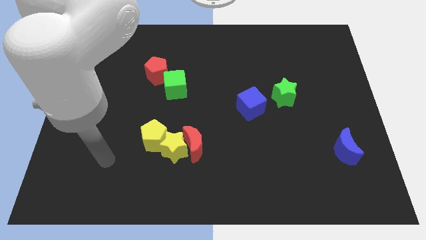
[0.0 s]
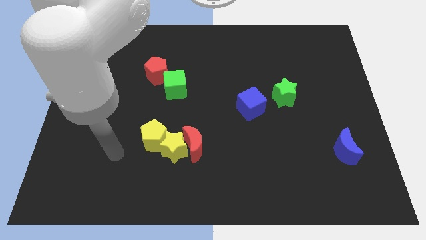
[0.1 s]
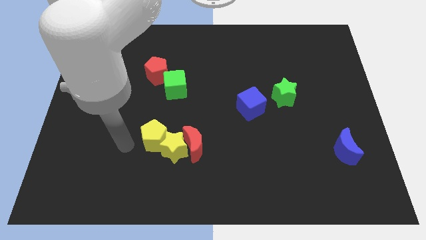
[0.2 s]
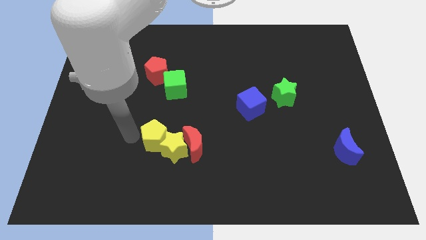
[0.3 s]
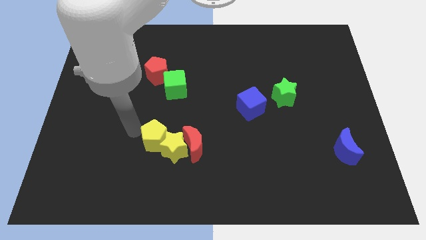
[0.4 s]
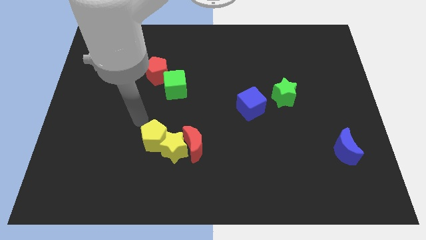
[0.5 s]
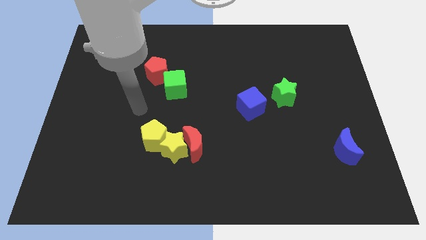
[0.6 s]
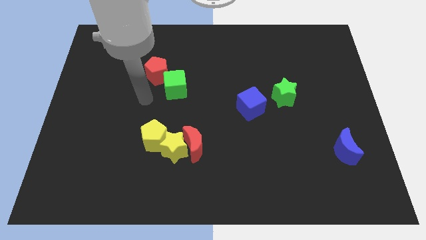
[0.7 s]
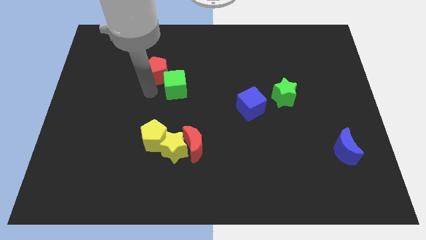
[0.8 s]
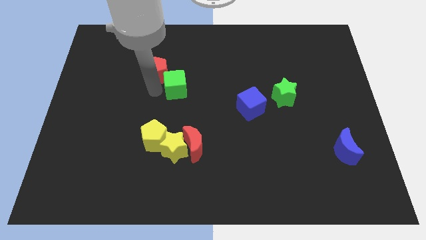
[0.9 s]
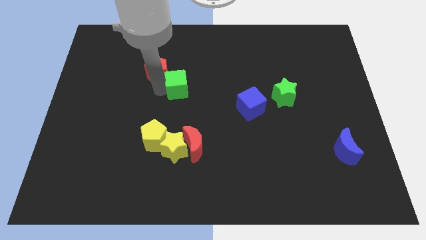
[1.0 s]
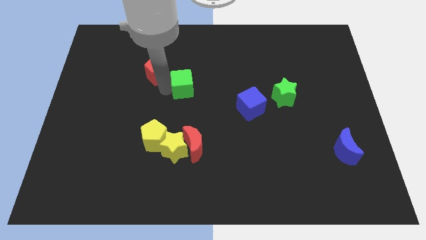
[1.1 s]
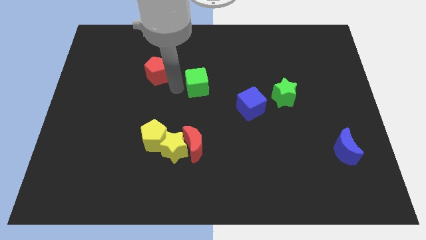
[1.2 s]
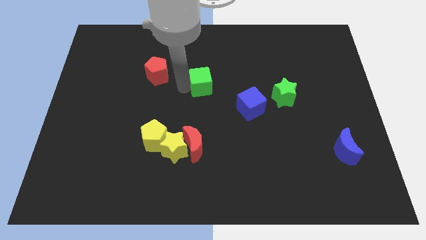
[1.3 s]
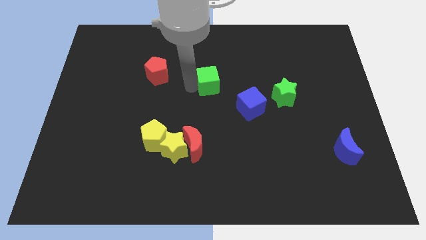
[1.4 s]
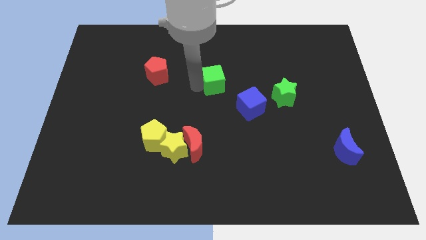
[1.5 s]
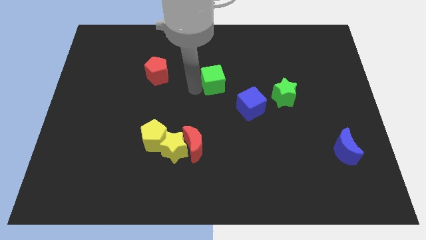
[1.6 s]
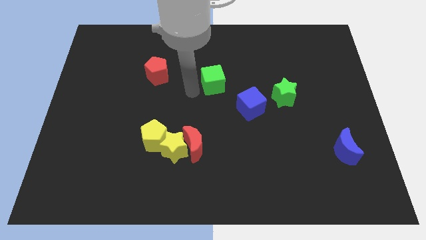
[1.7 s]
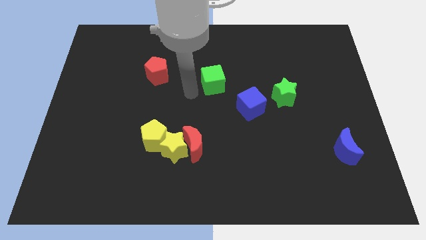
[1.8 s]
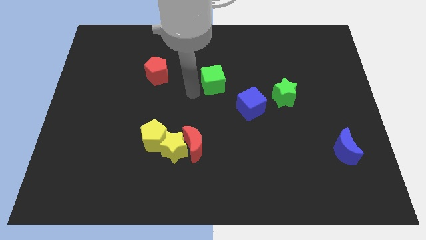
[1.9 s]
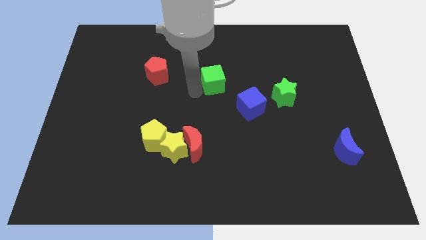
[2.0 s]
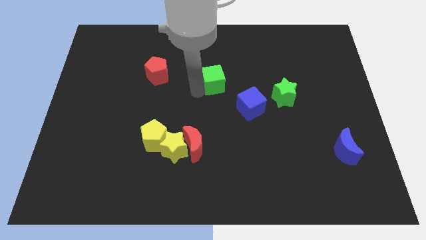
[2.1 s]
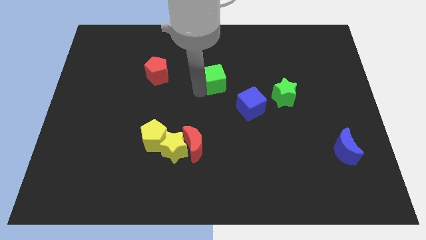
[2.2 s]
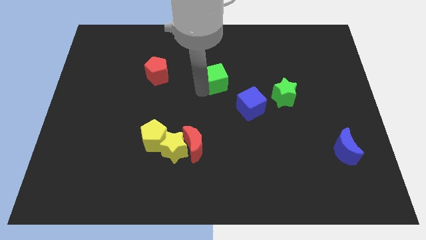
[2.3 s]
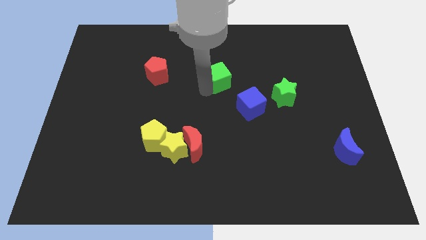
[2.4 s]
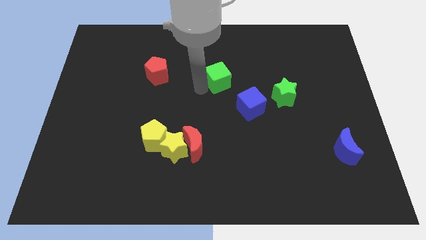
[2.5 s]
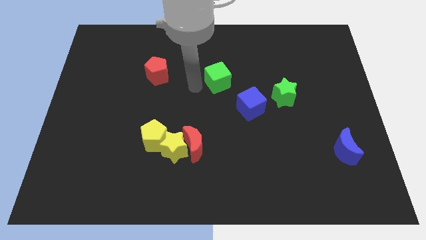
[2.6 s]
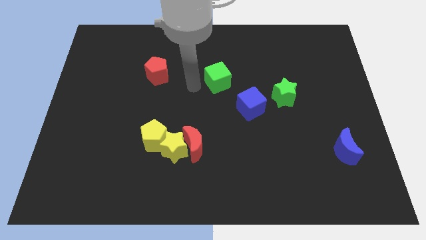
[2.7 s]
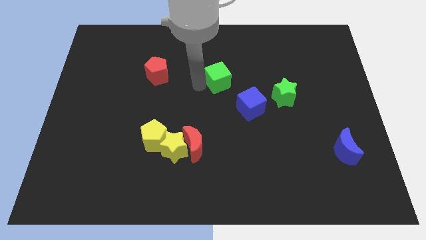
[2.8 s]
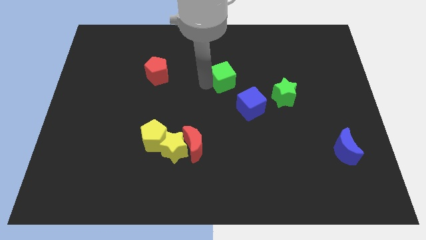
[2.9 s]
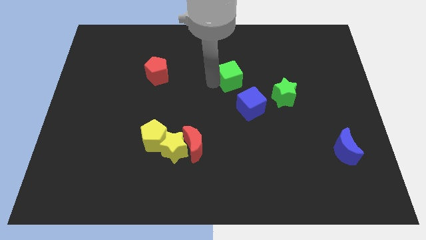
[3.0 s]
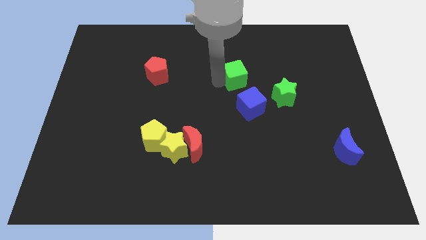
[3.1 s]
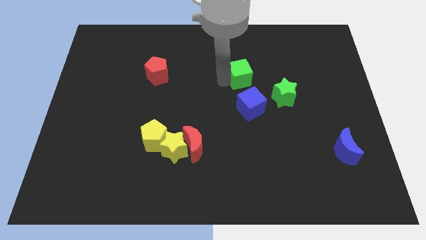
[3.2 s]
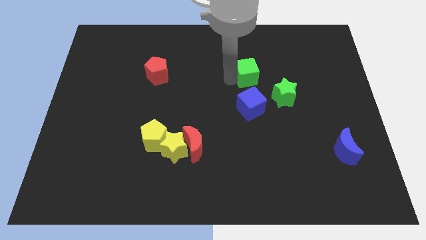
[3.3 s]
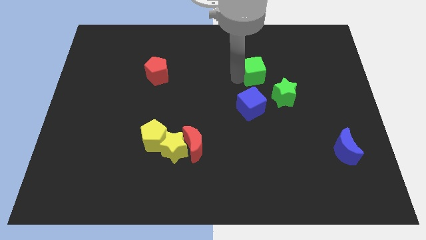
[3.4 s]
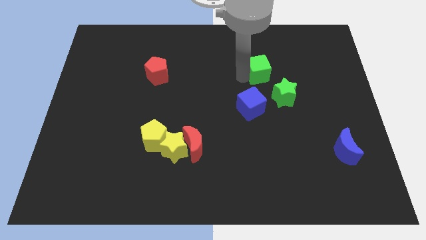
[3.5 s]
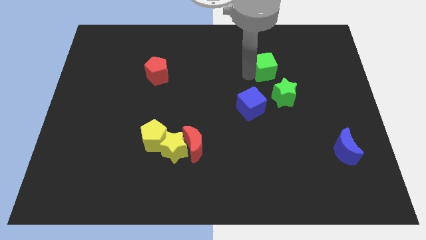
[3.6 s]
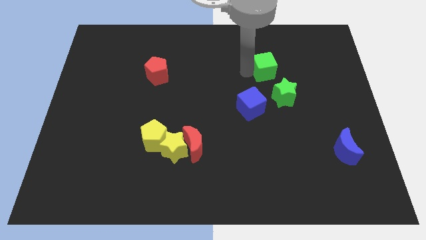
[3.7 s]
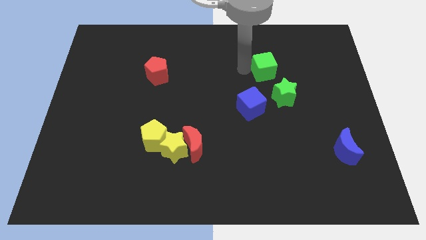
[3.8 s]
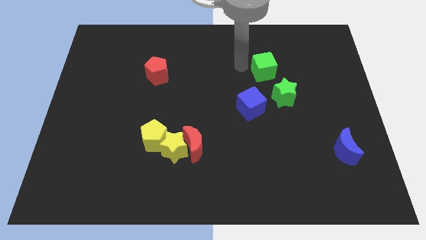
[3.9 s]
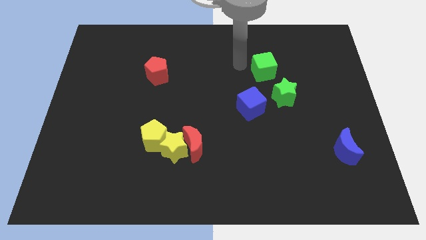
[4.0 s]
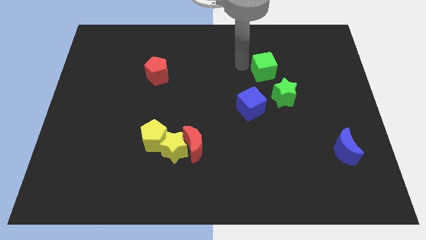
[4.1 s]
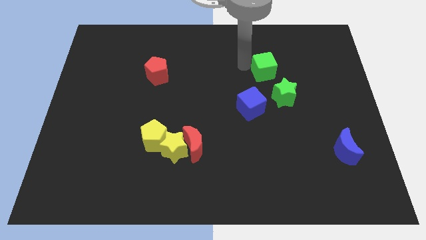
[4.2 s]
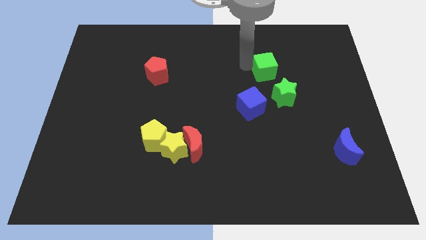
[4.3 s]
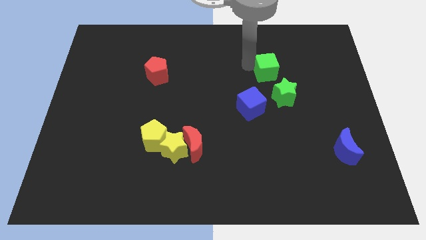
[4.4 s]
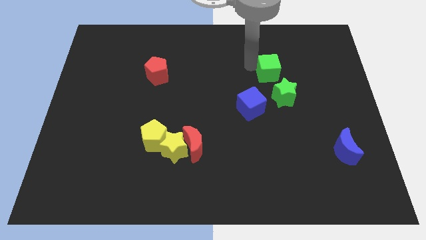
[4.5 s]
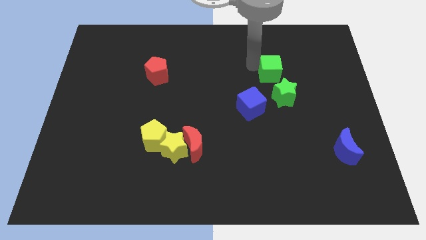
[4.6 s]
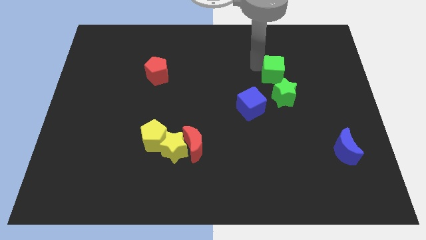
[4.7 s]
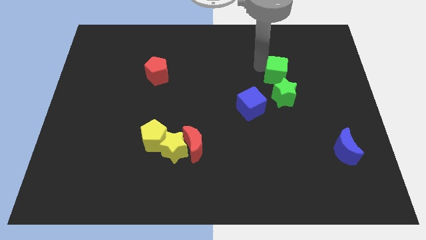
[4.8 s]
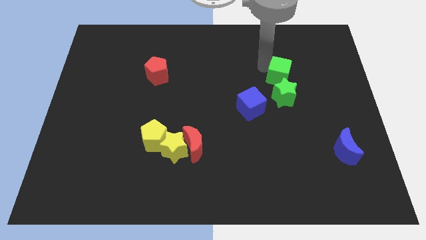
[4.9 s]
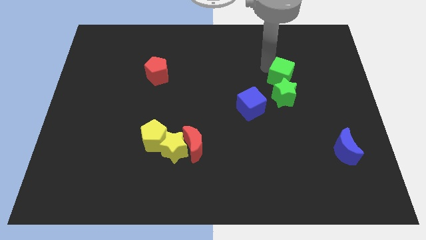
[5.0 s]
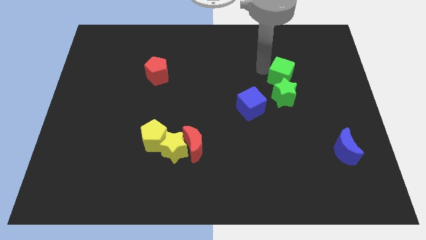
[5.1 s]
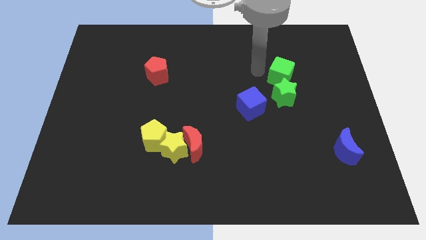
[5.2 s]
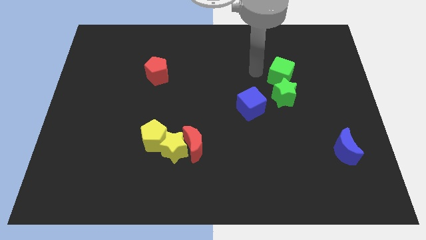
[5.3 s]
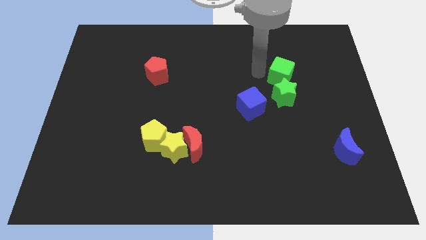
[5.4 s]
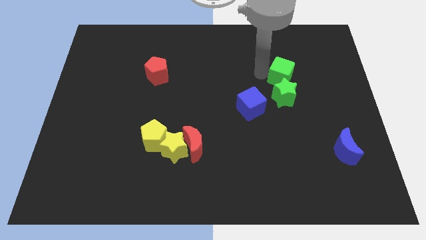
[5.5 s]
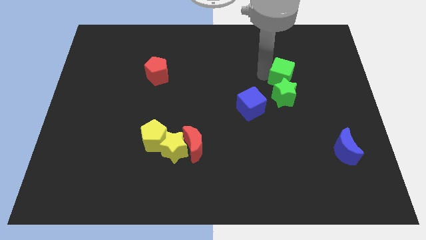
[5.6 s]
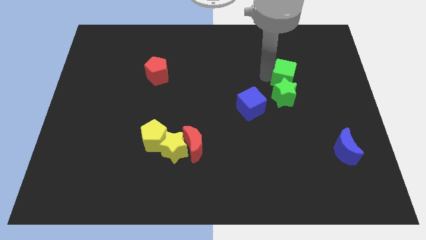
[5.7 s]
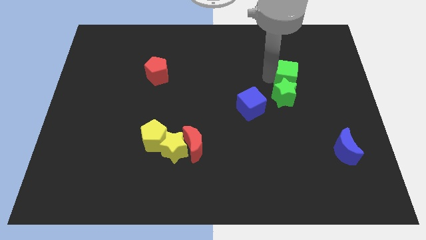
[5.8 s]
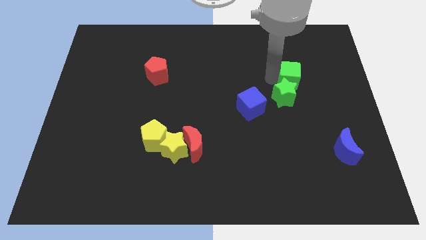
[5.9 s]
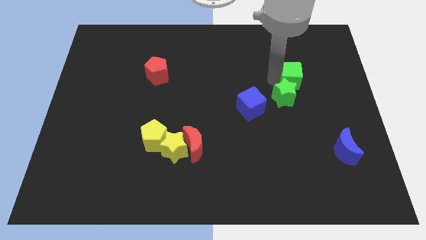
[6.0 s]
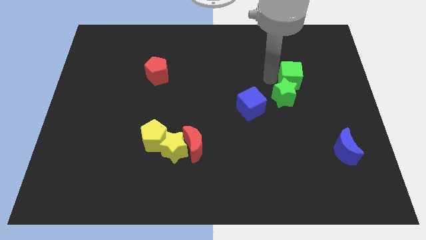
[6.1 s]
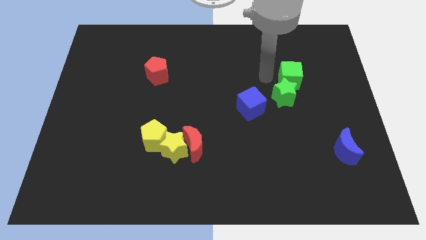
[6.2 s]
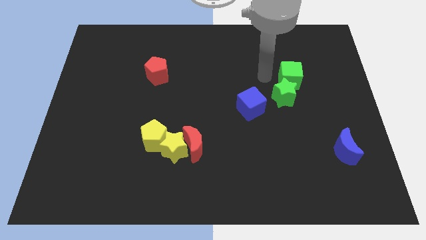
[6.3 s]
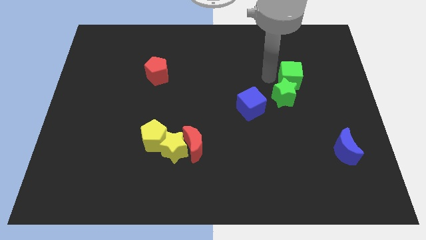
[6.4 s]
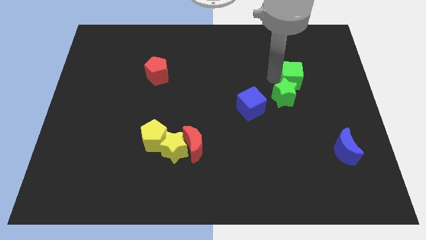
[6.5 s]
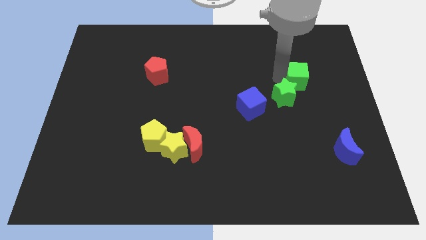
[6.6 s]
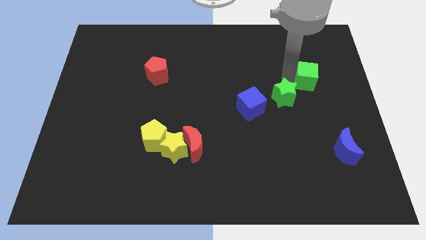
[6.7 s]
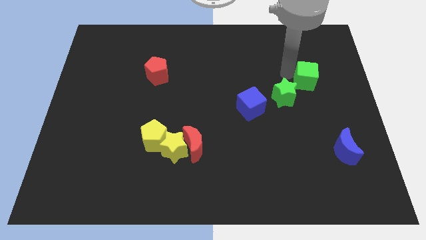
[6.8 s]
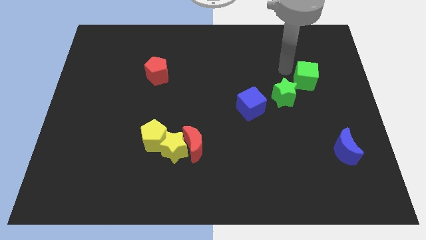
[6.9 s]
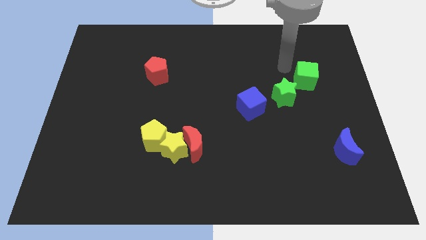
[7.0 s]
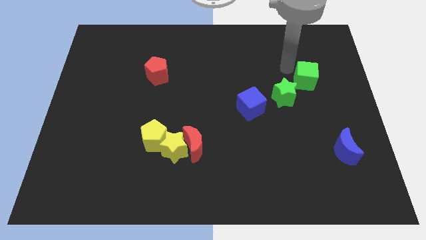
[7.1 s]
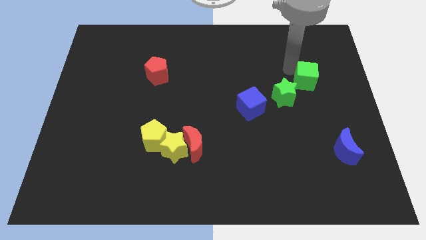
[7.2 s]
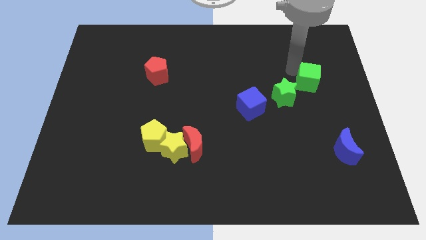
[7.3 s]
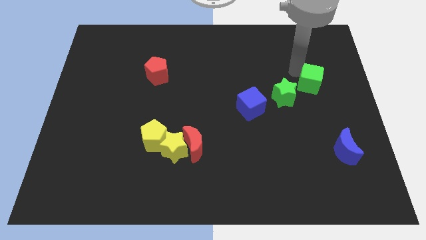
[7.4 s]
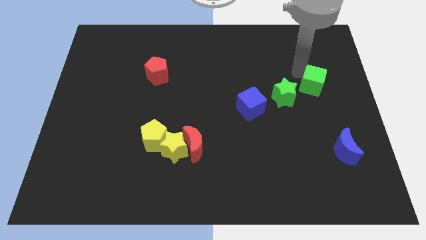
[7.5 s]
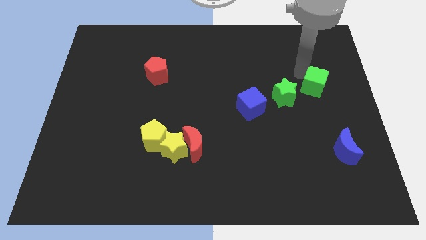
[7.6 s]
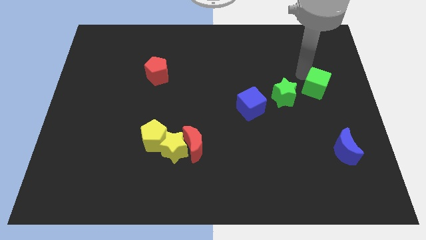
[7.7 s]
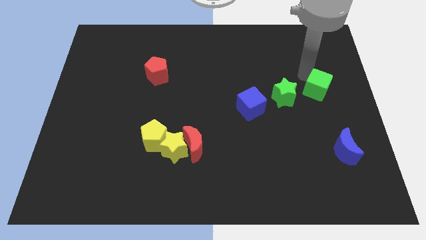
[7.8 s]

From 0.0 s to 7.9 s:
move the green cube to the right side of the board
